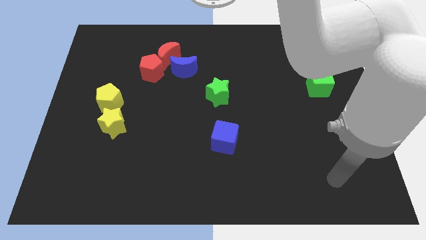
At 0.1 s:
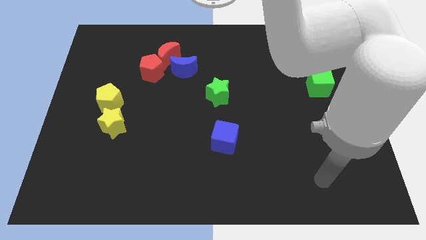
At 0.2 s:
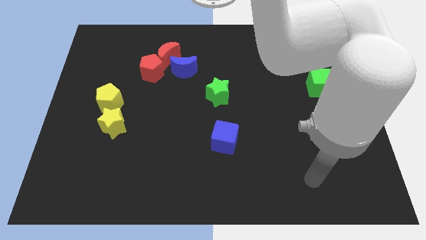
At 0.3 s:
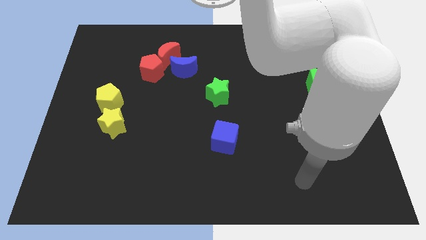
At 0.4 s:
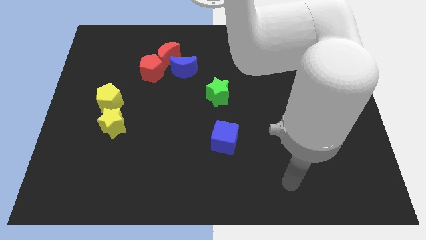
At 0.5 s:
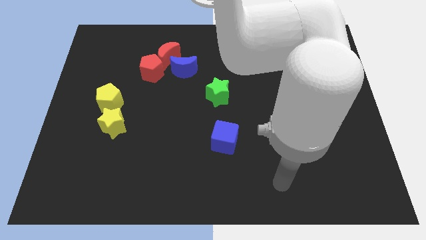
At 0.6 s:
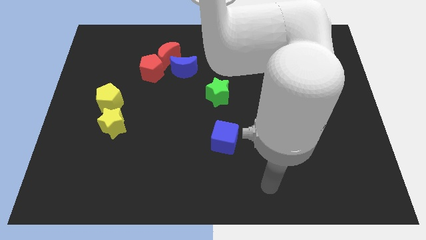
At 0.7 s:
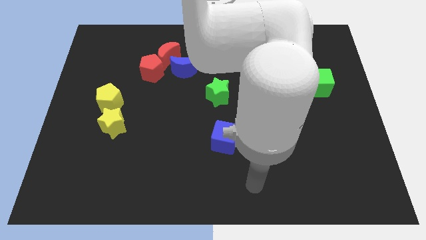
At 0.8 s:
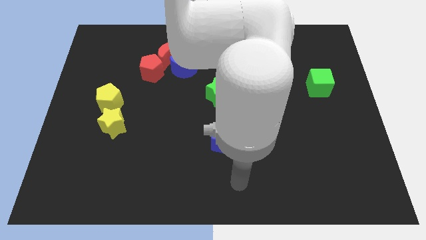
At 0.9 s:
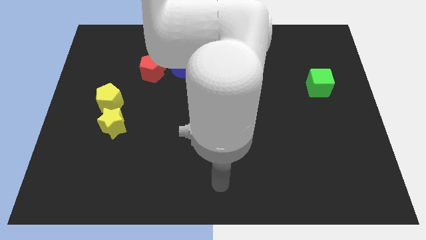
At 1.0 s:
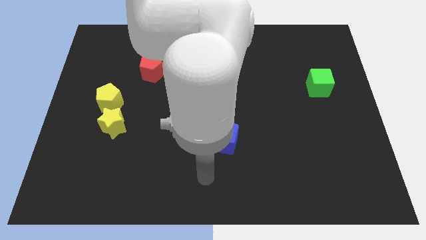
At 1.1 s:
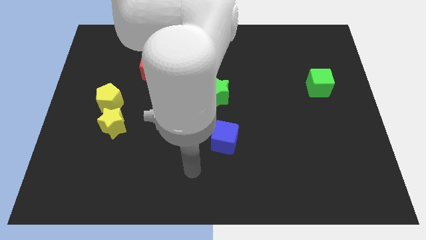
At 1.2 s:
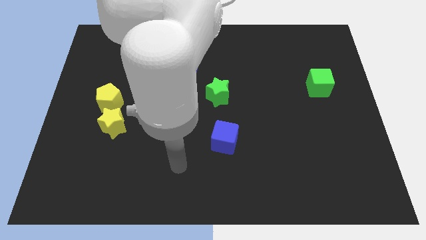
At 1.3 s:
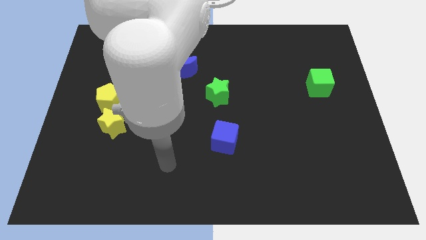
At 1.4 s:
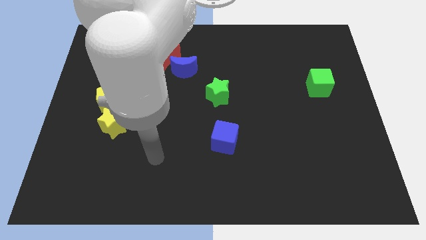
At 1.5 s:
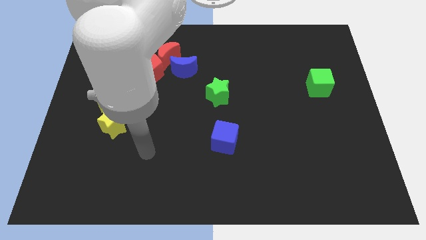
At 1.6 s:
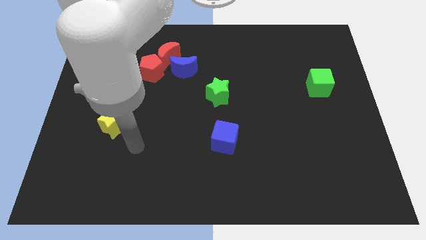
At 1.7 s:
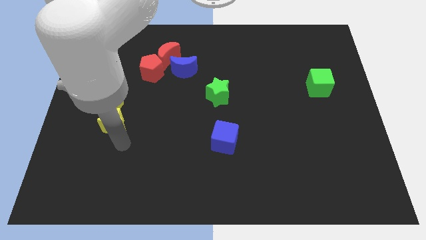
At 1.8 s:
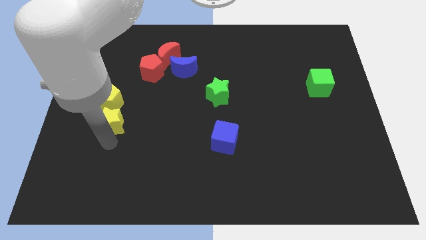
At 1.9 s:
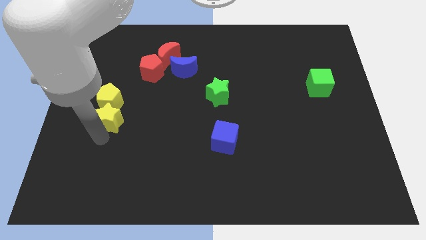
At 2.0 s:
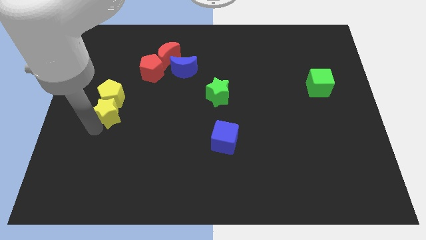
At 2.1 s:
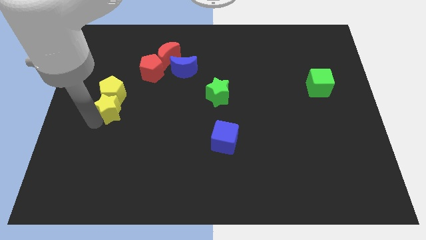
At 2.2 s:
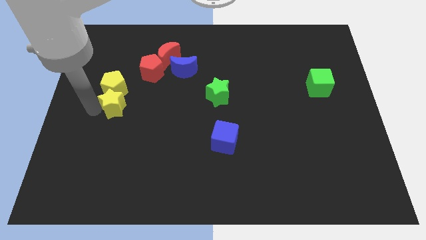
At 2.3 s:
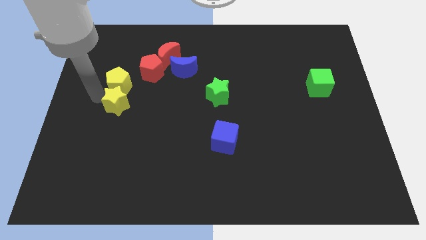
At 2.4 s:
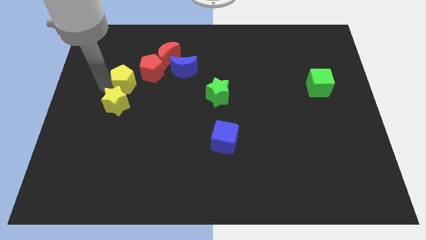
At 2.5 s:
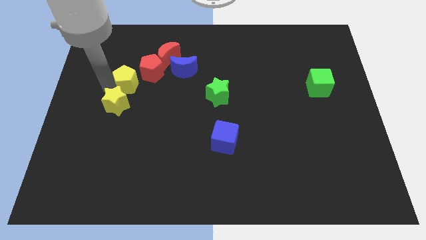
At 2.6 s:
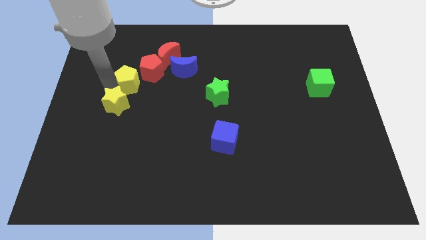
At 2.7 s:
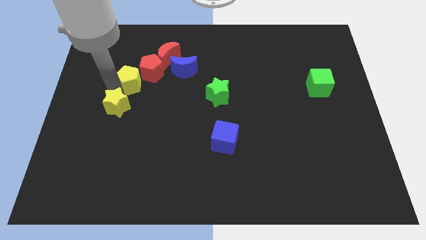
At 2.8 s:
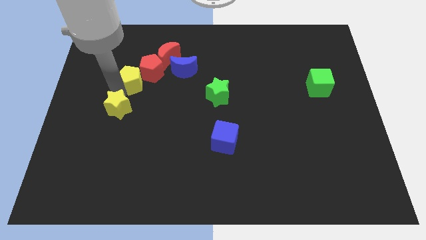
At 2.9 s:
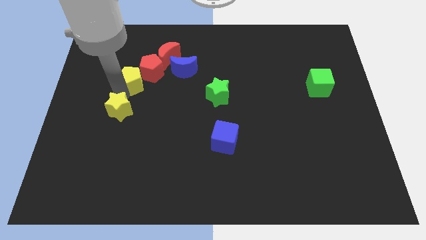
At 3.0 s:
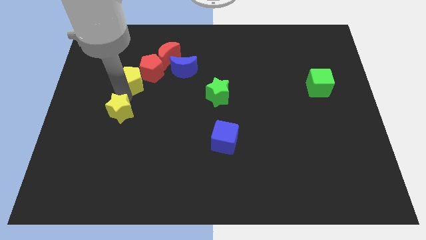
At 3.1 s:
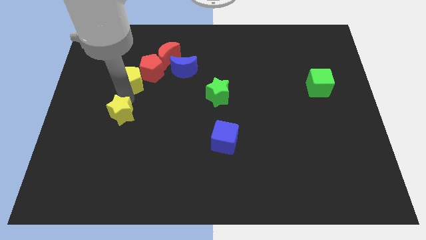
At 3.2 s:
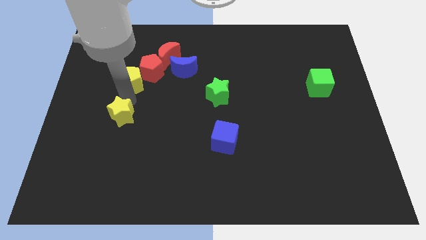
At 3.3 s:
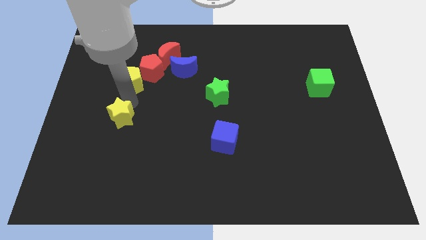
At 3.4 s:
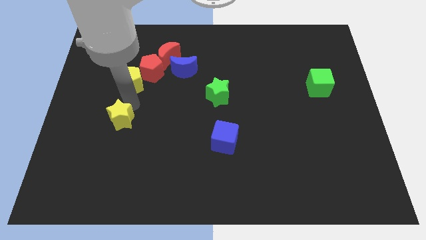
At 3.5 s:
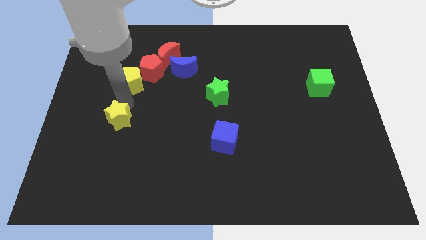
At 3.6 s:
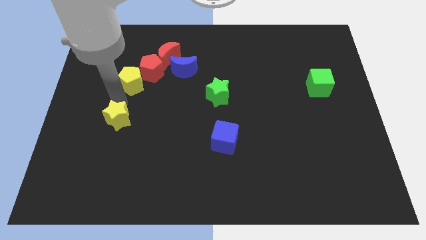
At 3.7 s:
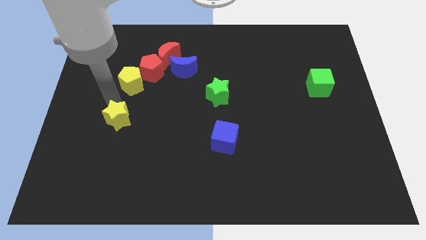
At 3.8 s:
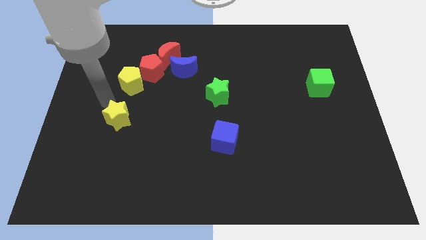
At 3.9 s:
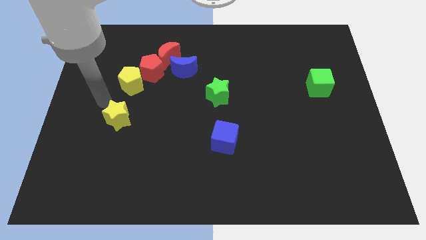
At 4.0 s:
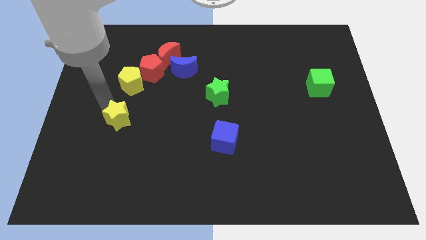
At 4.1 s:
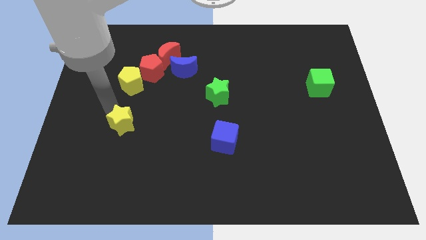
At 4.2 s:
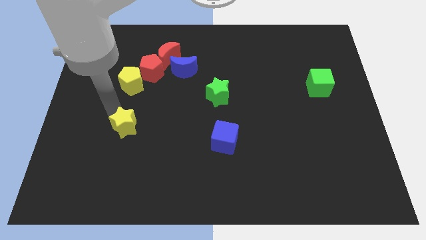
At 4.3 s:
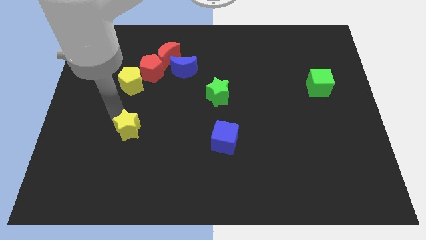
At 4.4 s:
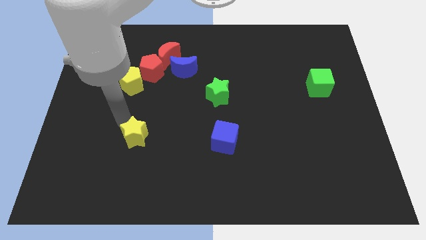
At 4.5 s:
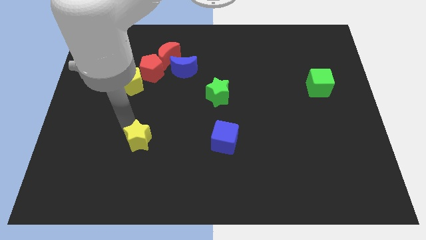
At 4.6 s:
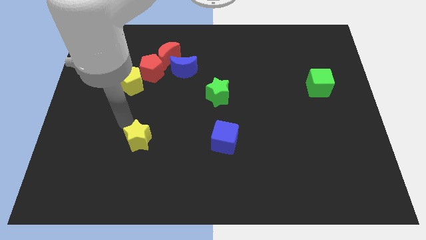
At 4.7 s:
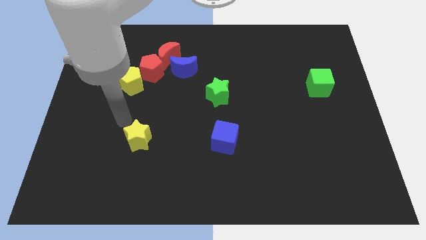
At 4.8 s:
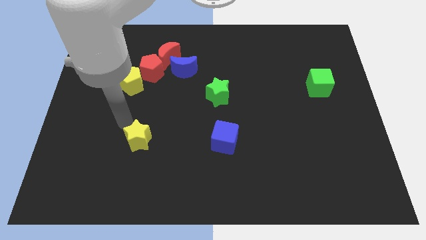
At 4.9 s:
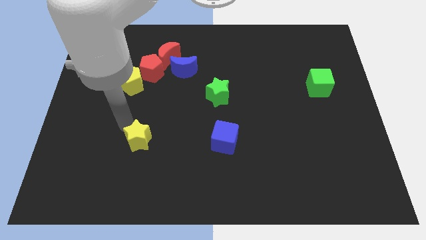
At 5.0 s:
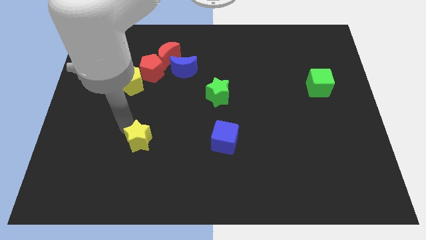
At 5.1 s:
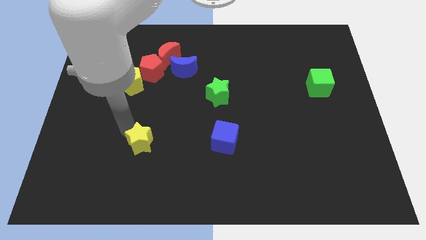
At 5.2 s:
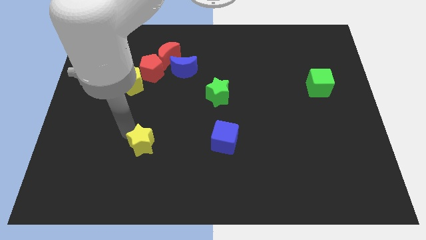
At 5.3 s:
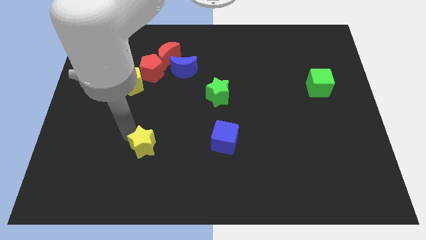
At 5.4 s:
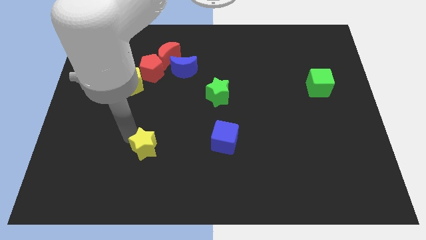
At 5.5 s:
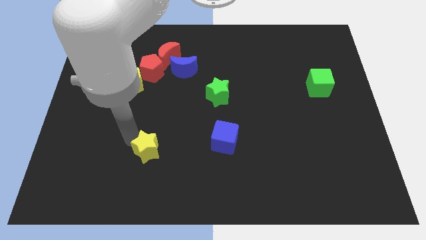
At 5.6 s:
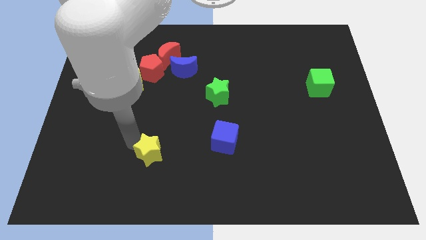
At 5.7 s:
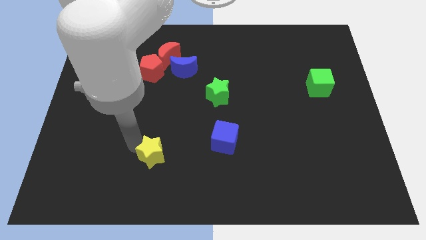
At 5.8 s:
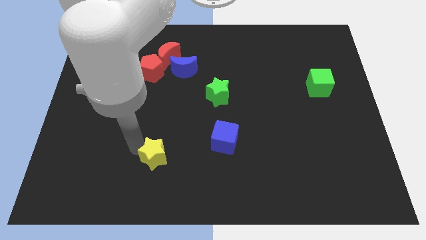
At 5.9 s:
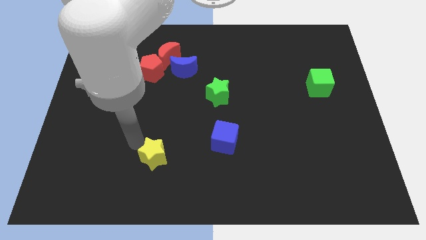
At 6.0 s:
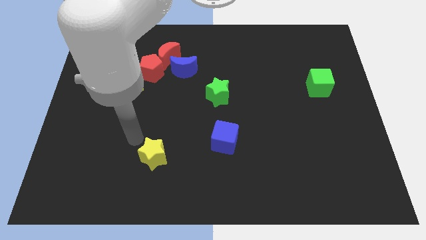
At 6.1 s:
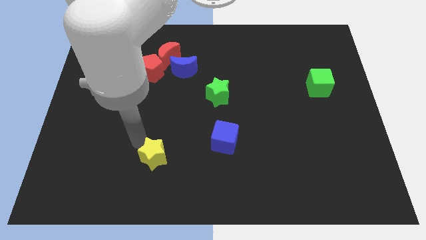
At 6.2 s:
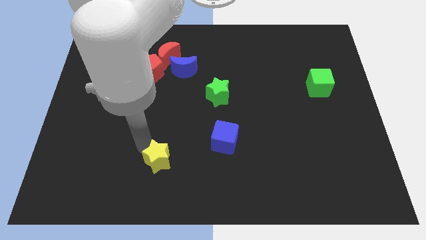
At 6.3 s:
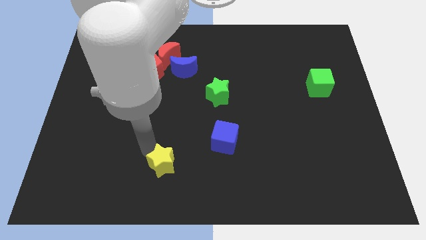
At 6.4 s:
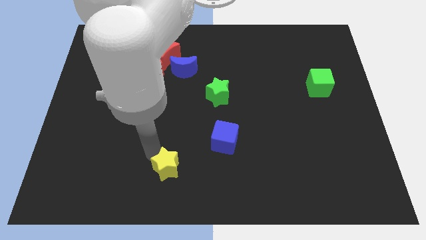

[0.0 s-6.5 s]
push the yellow star to the bottom side

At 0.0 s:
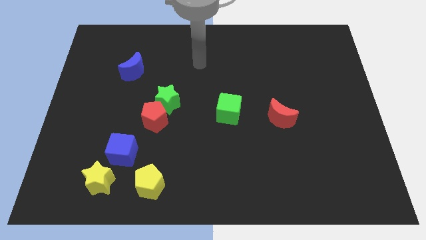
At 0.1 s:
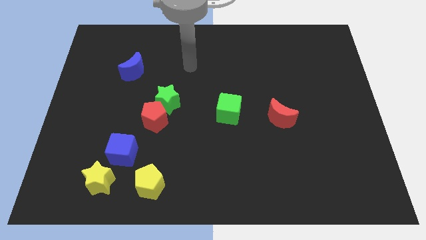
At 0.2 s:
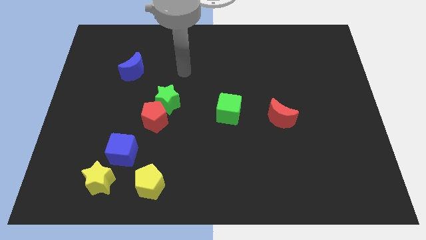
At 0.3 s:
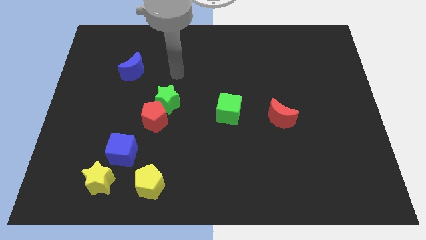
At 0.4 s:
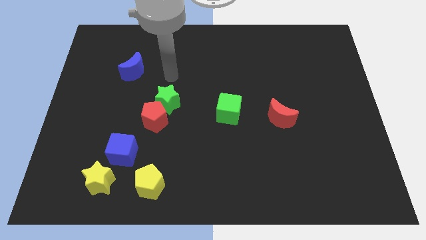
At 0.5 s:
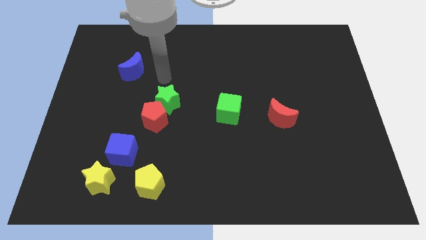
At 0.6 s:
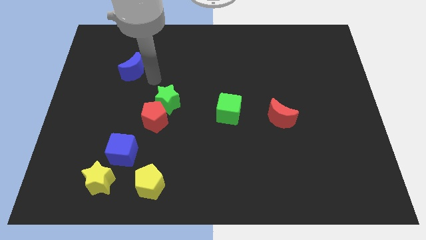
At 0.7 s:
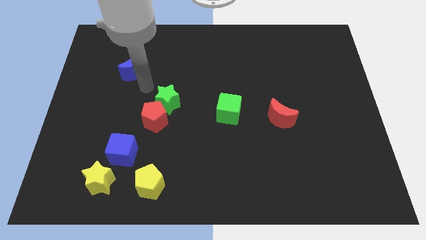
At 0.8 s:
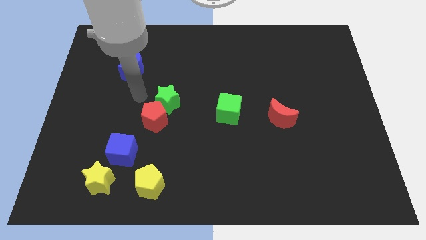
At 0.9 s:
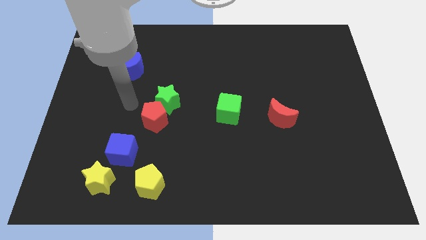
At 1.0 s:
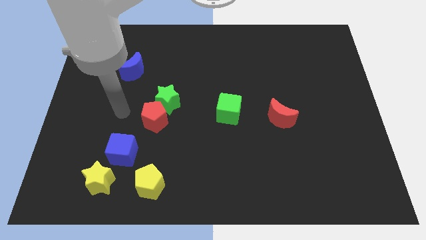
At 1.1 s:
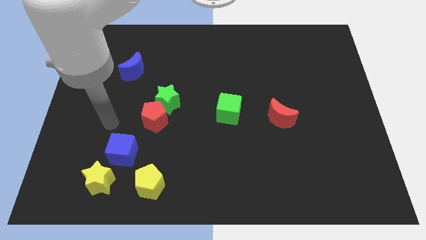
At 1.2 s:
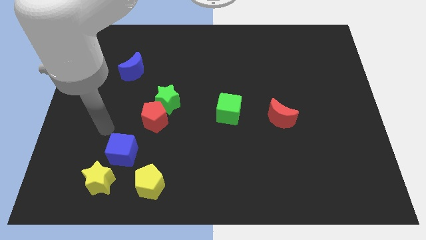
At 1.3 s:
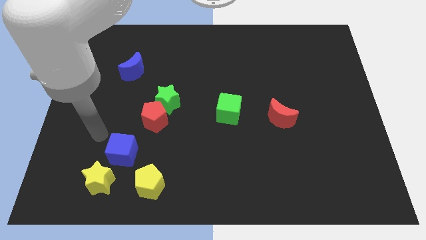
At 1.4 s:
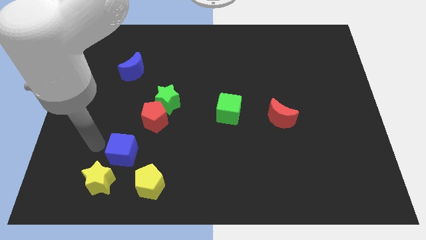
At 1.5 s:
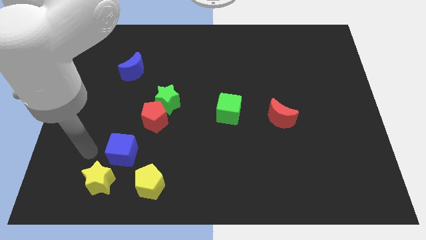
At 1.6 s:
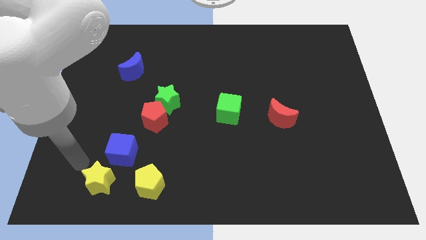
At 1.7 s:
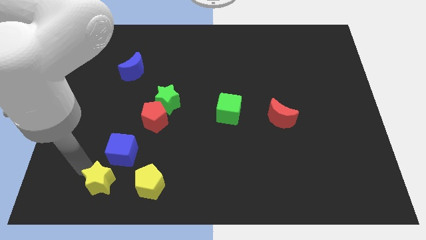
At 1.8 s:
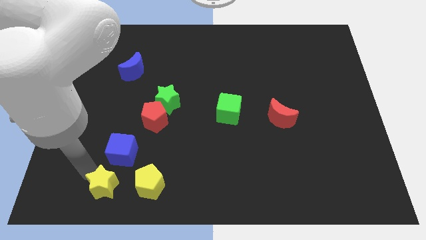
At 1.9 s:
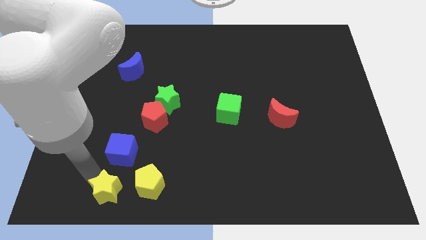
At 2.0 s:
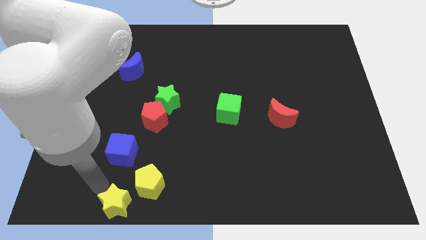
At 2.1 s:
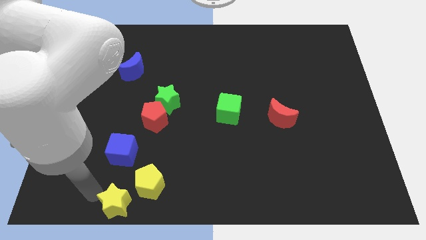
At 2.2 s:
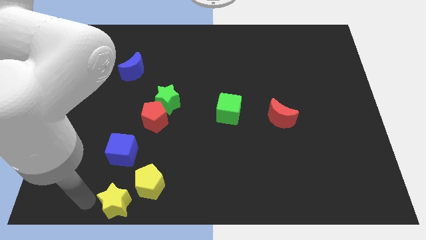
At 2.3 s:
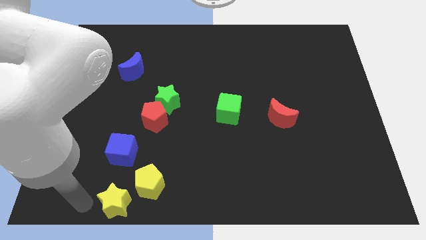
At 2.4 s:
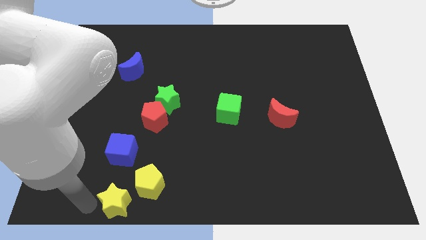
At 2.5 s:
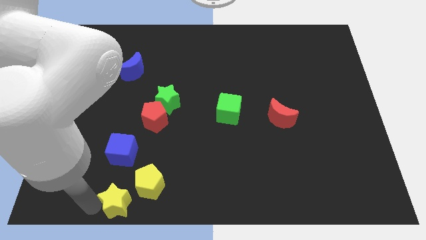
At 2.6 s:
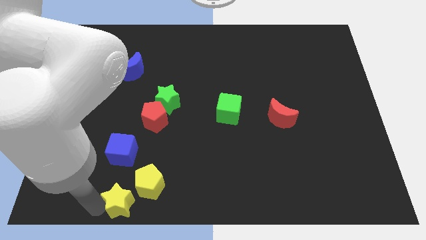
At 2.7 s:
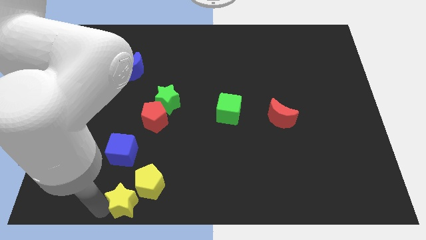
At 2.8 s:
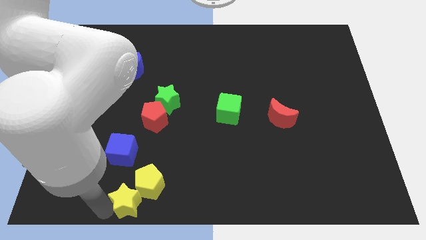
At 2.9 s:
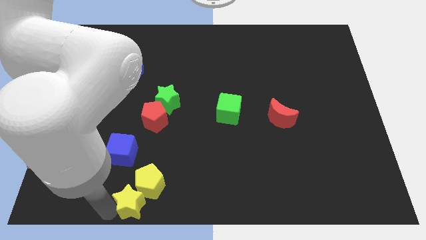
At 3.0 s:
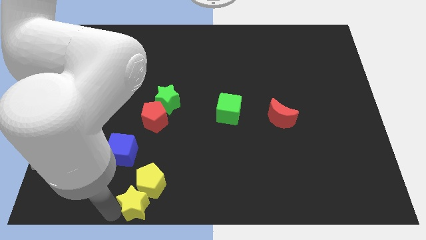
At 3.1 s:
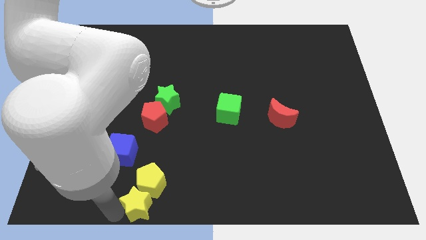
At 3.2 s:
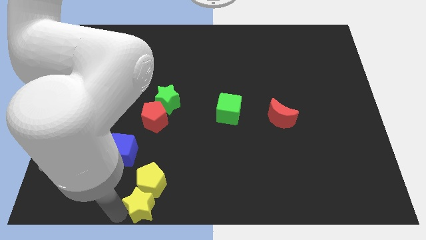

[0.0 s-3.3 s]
slide the yellow star to the bottom
